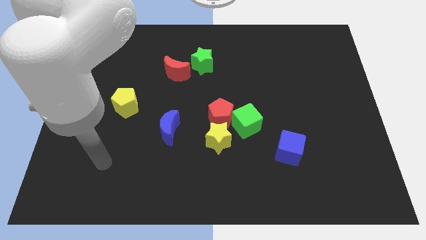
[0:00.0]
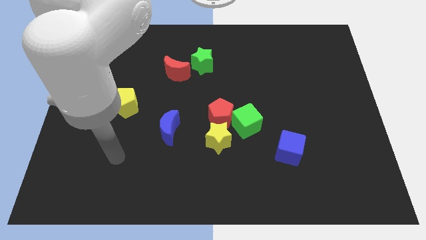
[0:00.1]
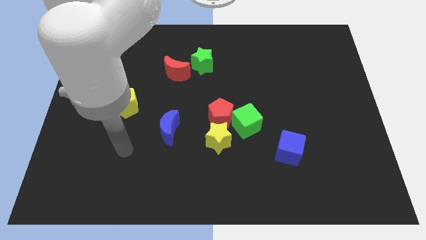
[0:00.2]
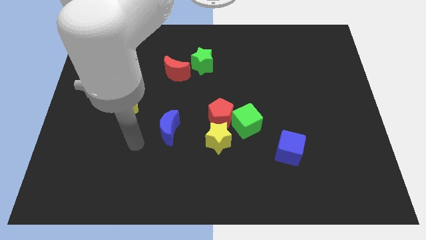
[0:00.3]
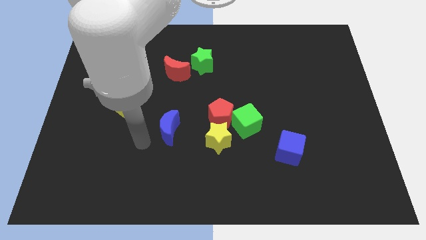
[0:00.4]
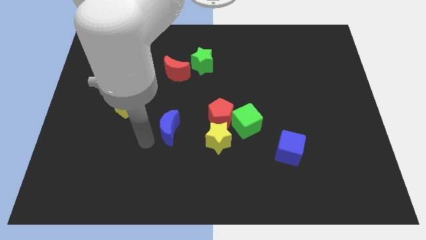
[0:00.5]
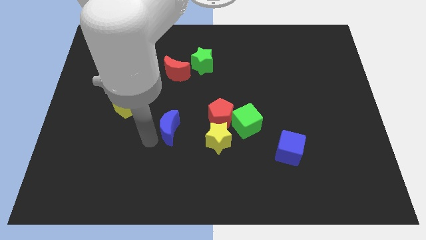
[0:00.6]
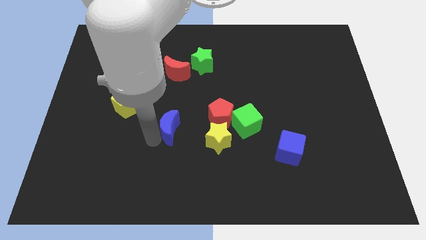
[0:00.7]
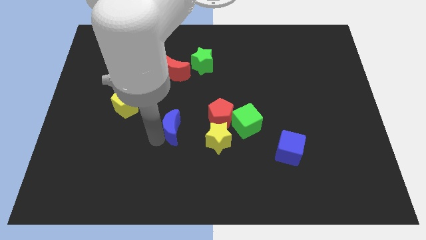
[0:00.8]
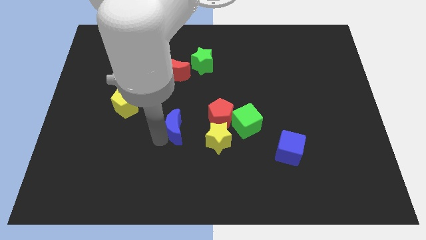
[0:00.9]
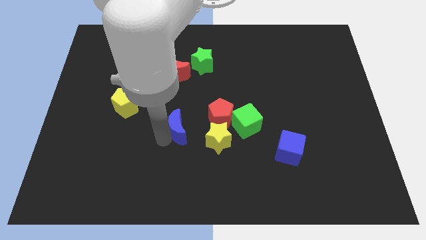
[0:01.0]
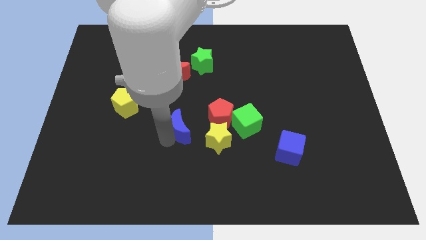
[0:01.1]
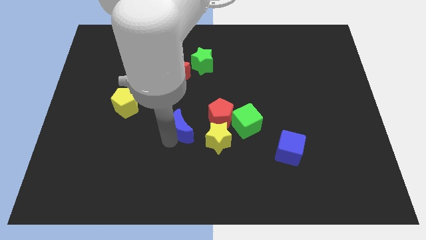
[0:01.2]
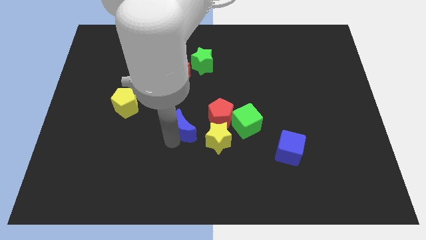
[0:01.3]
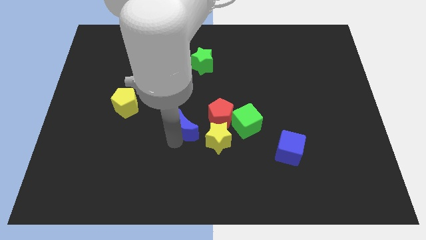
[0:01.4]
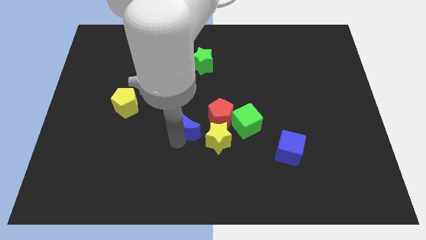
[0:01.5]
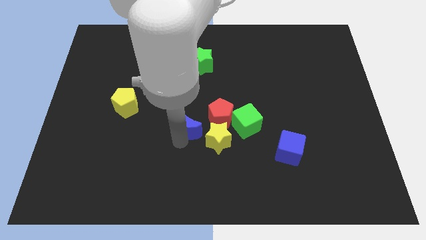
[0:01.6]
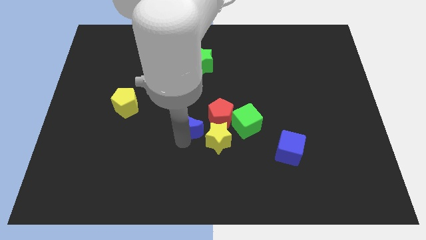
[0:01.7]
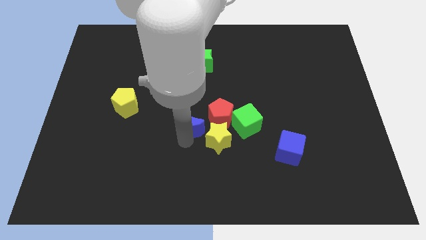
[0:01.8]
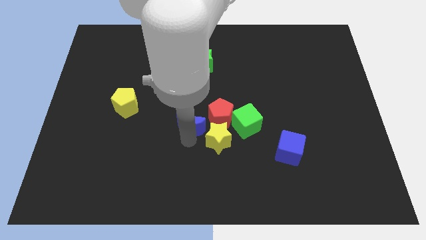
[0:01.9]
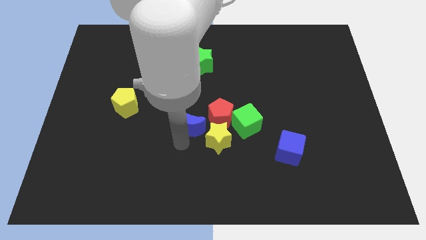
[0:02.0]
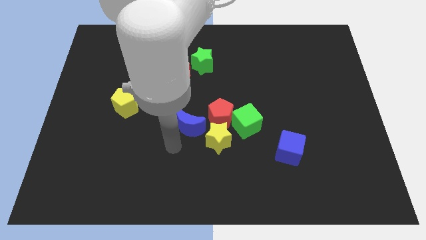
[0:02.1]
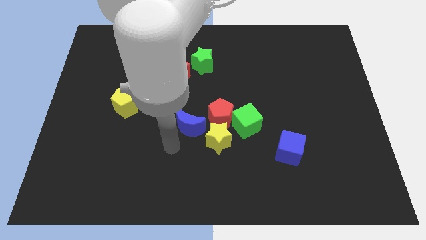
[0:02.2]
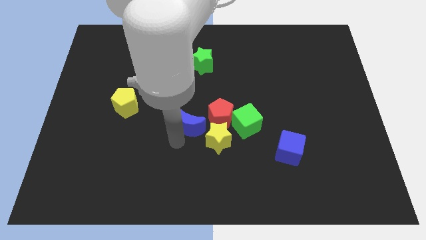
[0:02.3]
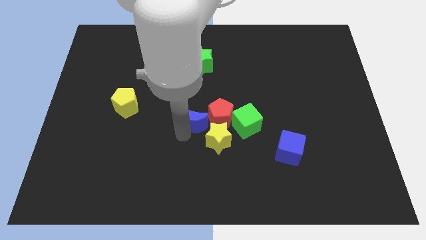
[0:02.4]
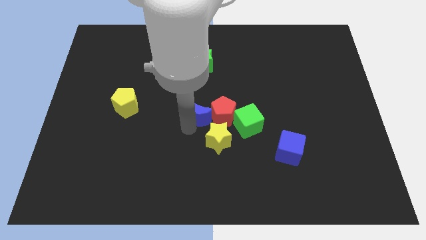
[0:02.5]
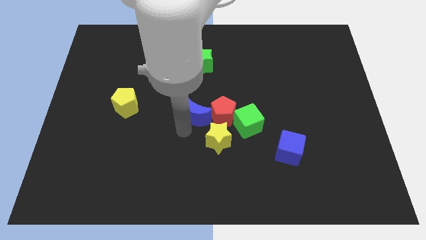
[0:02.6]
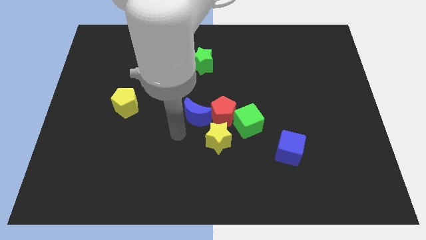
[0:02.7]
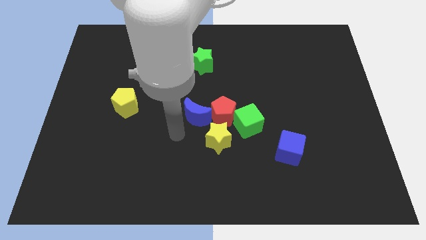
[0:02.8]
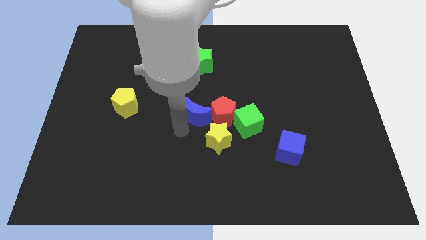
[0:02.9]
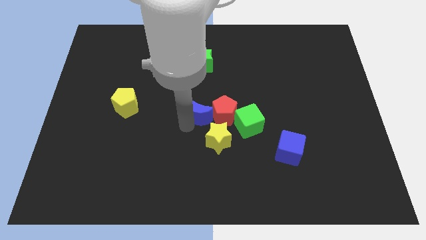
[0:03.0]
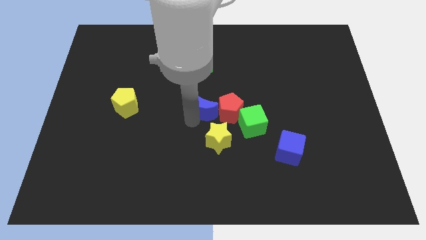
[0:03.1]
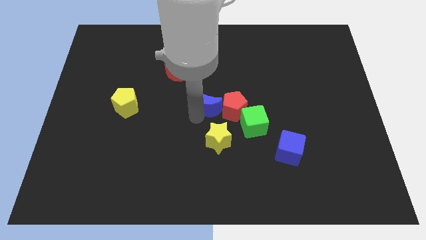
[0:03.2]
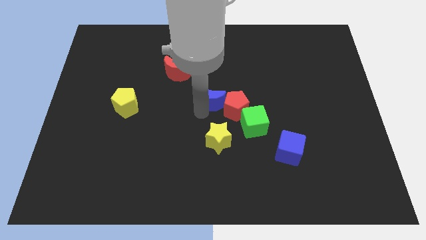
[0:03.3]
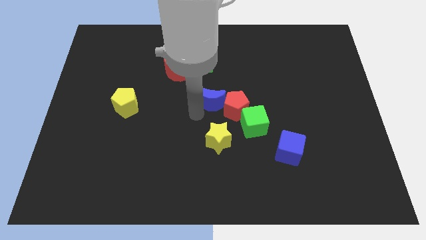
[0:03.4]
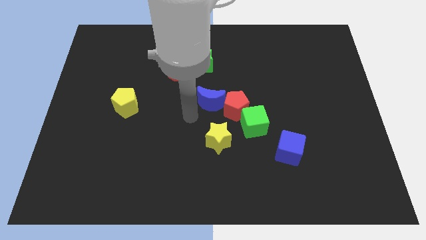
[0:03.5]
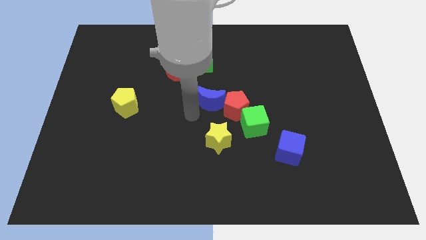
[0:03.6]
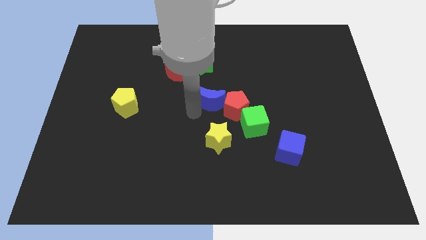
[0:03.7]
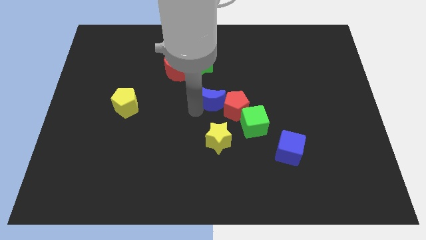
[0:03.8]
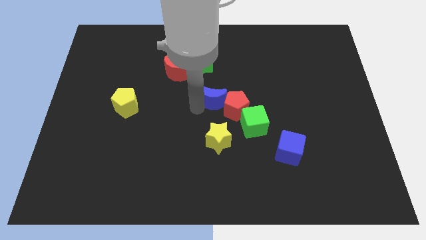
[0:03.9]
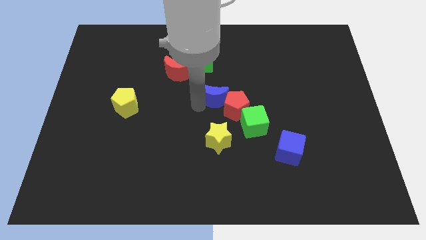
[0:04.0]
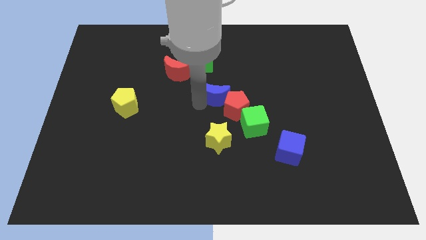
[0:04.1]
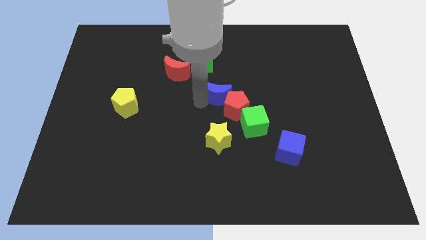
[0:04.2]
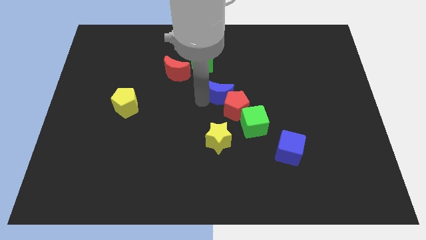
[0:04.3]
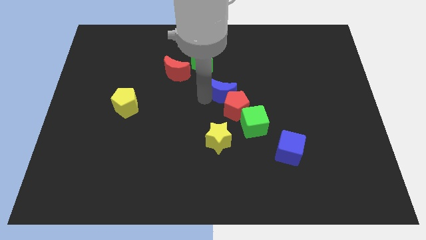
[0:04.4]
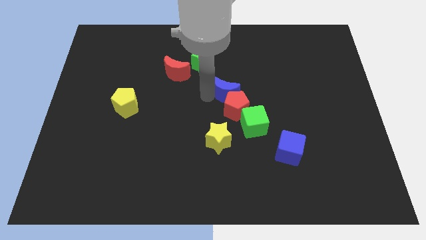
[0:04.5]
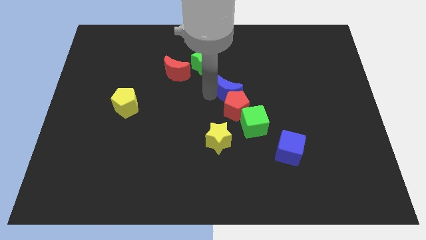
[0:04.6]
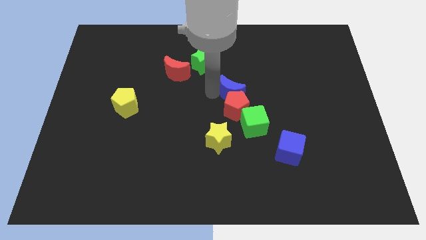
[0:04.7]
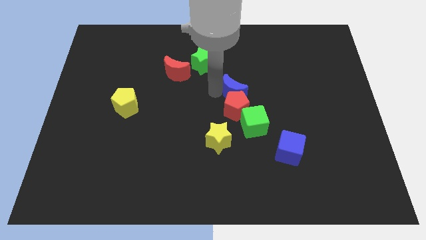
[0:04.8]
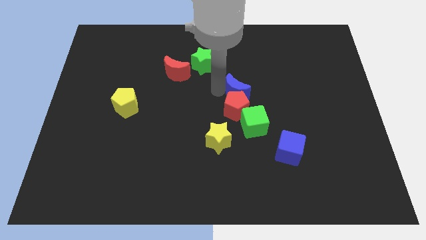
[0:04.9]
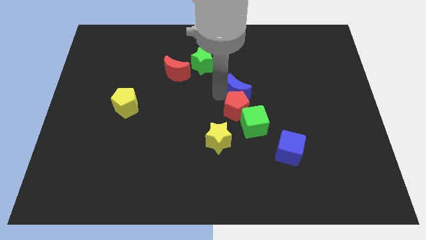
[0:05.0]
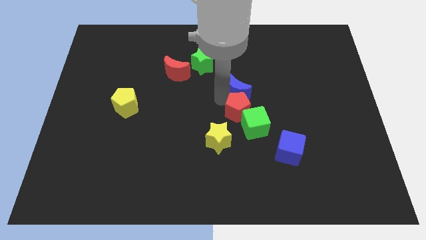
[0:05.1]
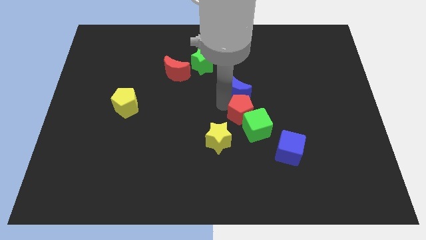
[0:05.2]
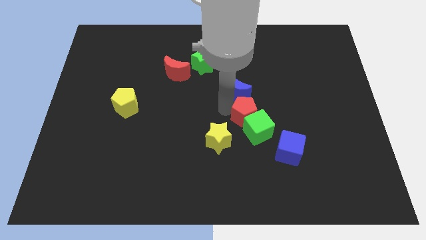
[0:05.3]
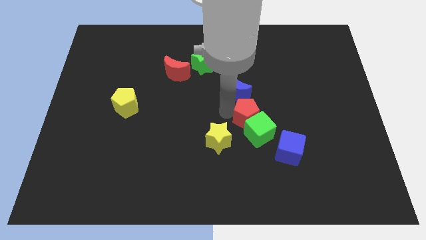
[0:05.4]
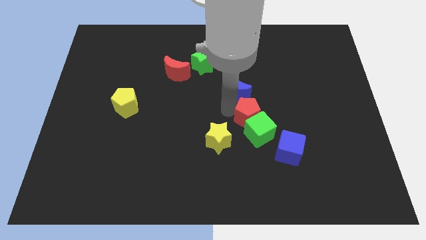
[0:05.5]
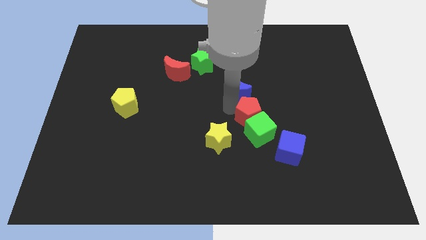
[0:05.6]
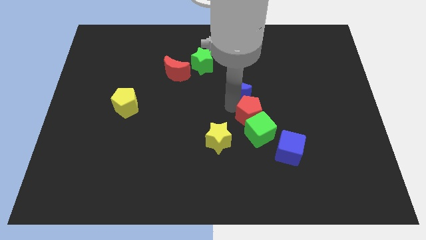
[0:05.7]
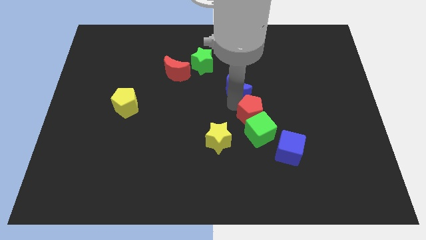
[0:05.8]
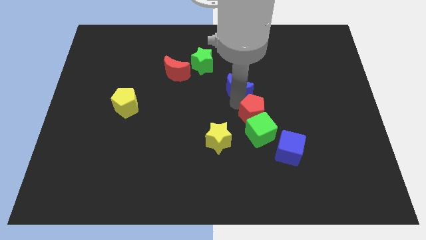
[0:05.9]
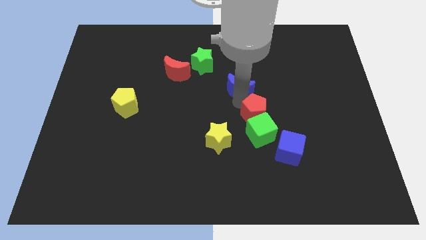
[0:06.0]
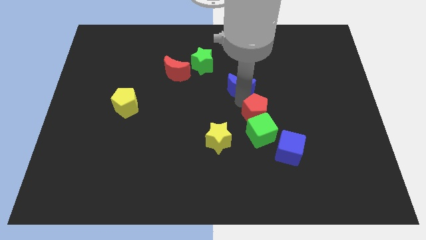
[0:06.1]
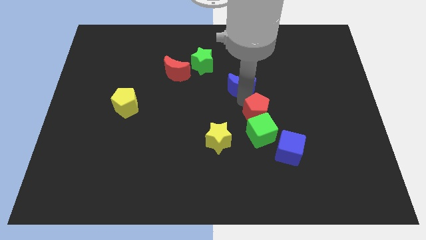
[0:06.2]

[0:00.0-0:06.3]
push the blue moon up and then right

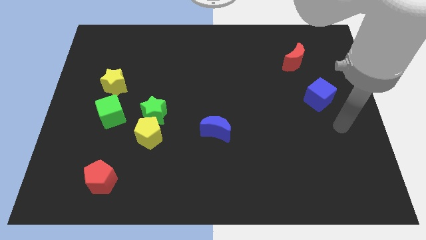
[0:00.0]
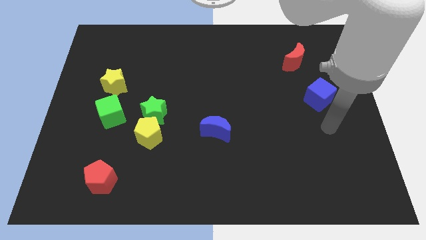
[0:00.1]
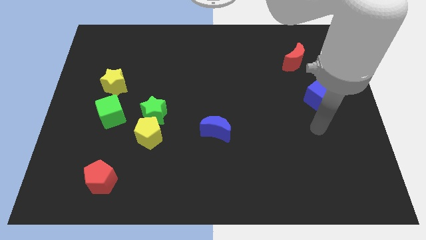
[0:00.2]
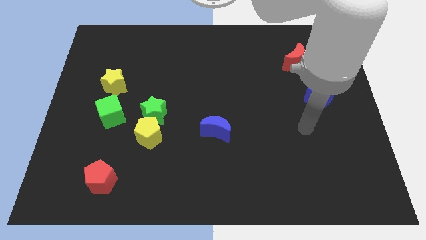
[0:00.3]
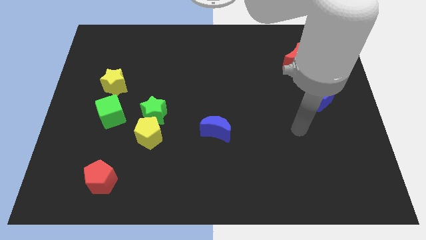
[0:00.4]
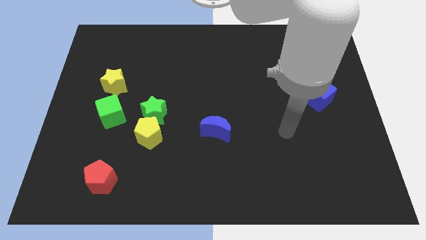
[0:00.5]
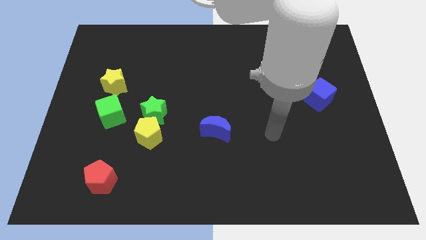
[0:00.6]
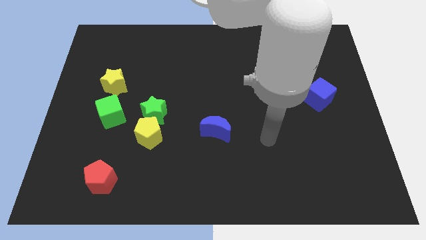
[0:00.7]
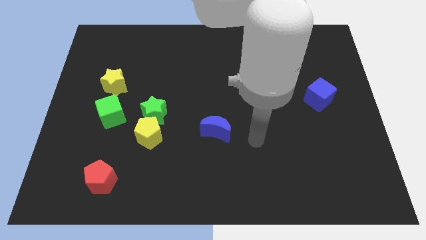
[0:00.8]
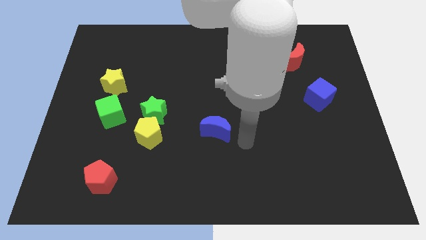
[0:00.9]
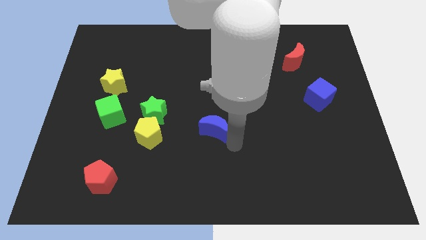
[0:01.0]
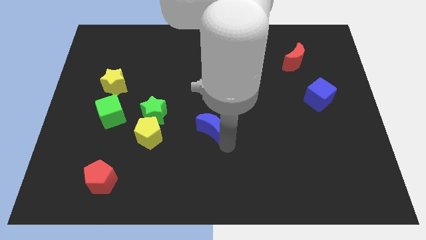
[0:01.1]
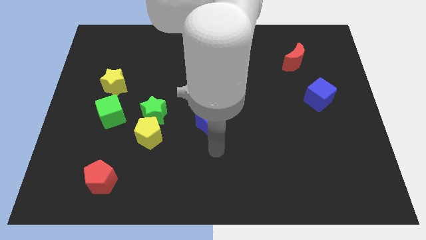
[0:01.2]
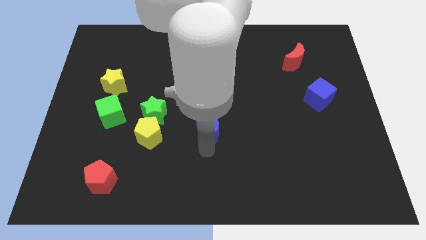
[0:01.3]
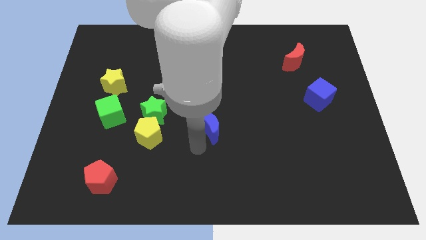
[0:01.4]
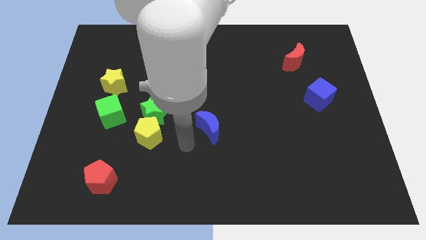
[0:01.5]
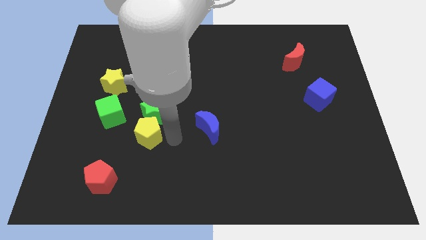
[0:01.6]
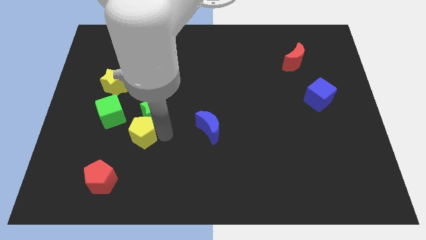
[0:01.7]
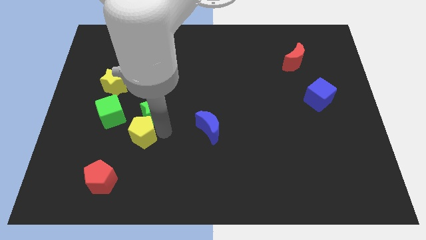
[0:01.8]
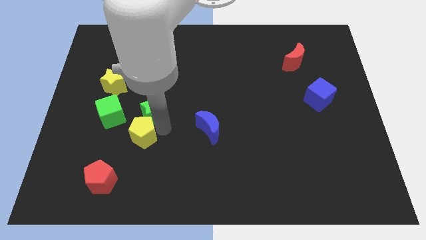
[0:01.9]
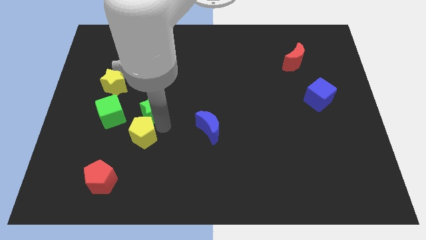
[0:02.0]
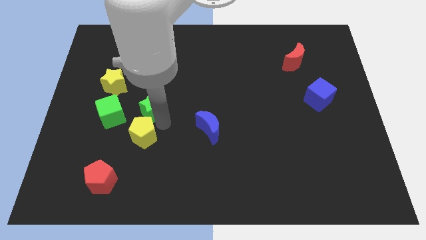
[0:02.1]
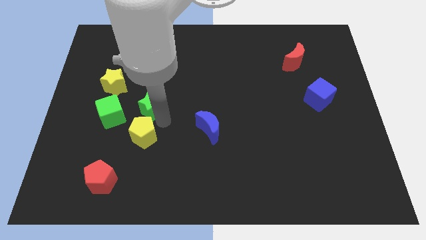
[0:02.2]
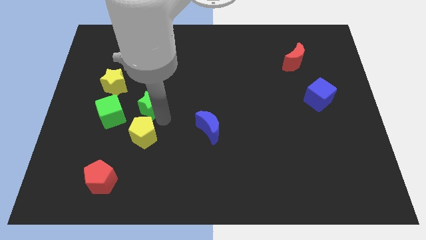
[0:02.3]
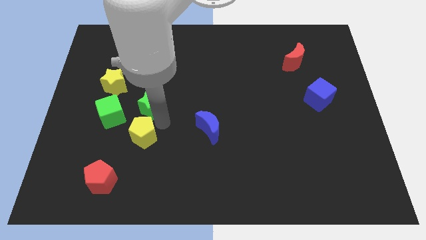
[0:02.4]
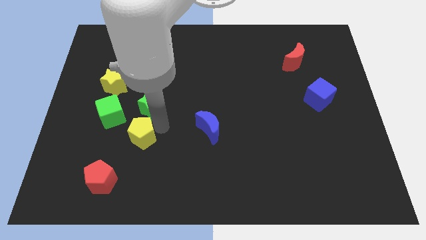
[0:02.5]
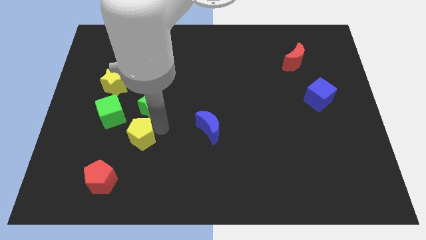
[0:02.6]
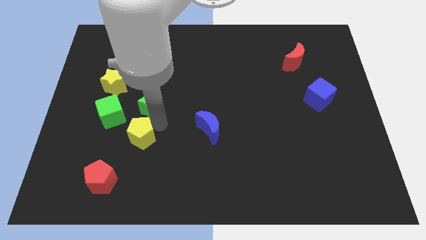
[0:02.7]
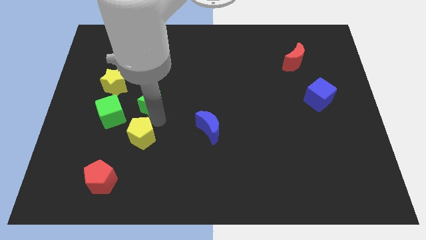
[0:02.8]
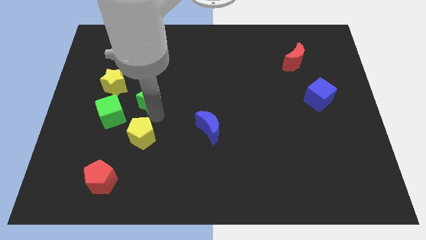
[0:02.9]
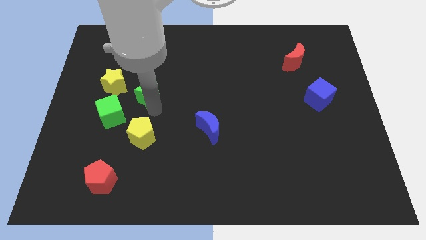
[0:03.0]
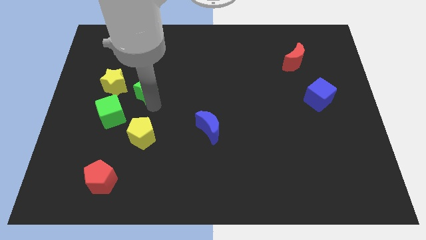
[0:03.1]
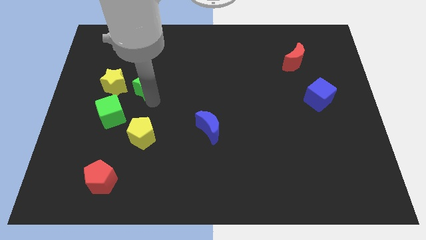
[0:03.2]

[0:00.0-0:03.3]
move the green star a bit diagonally upwards and left
